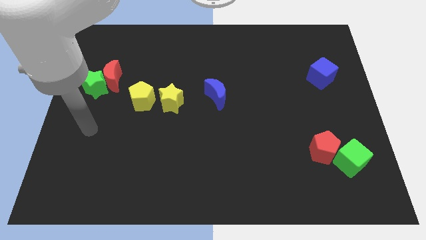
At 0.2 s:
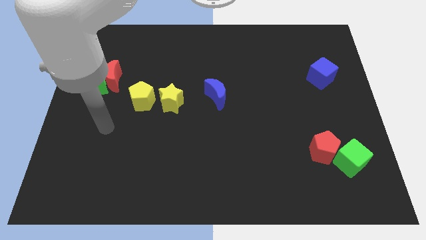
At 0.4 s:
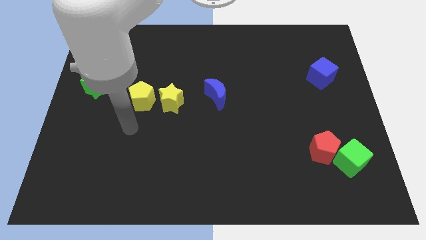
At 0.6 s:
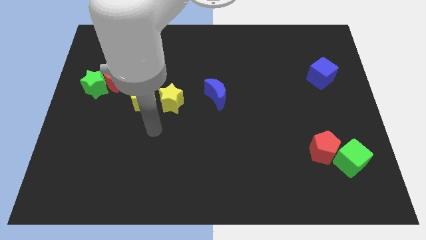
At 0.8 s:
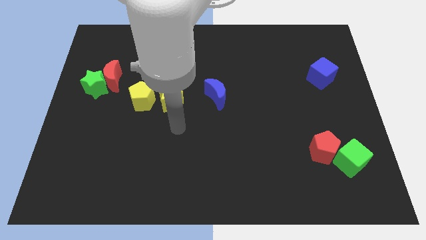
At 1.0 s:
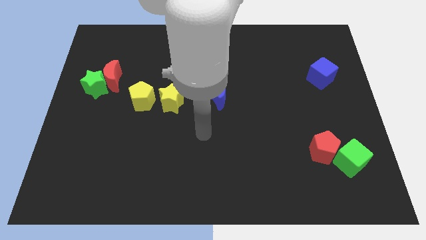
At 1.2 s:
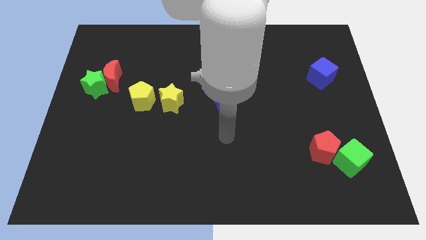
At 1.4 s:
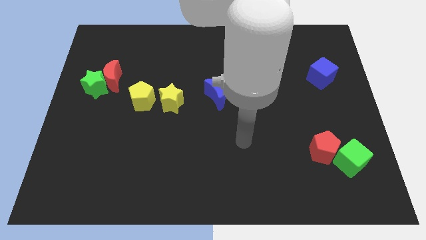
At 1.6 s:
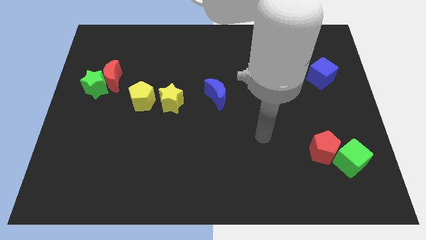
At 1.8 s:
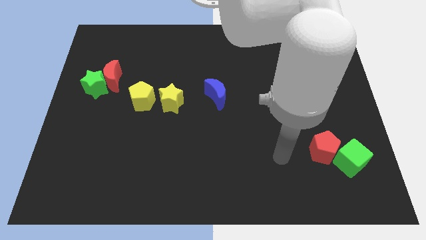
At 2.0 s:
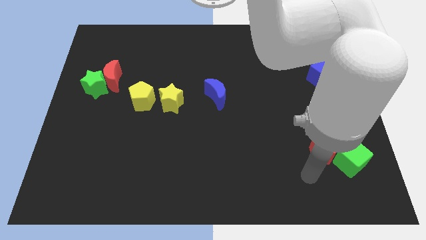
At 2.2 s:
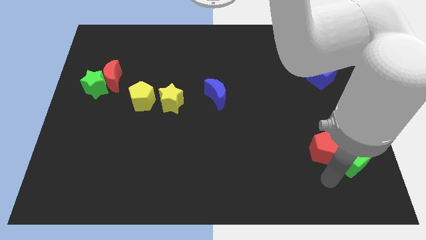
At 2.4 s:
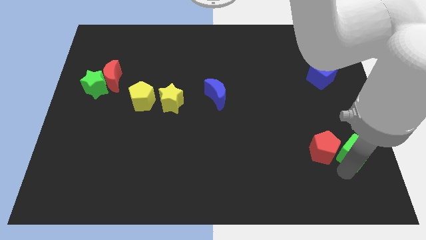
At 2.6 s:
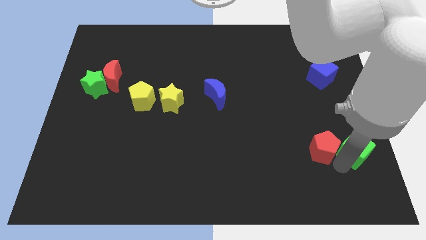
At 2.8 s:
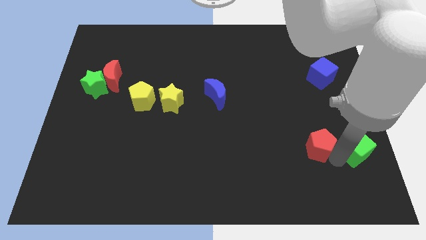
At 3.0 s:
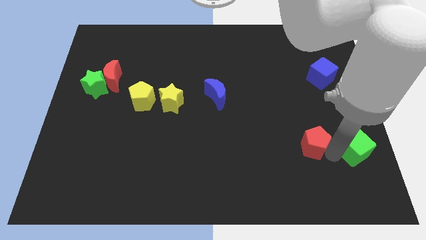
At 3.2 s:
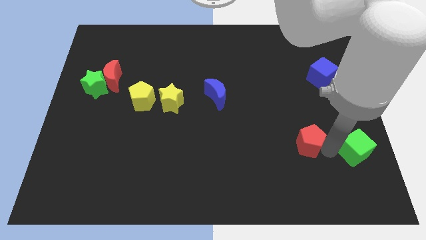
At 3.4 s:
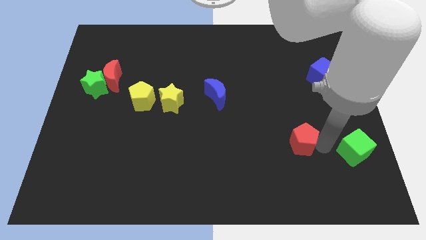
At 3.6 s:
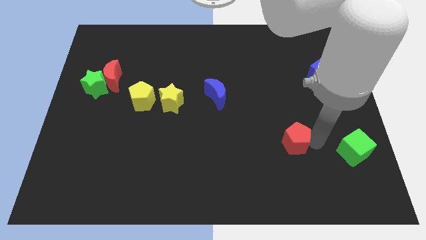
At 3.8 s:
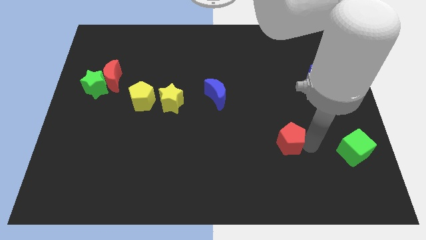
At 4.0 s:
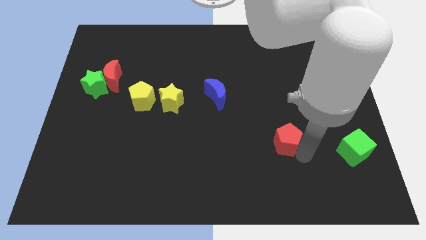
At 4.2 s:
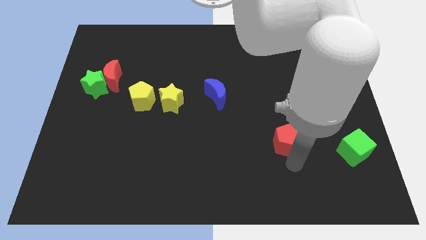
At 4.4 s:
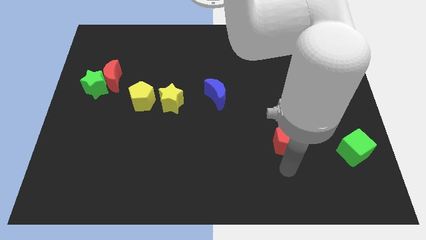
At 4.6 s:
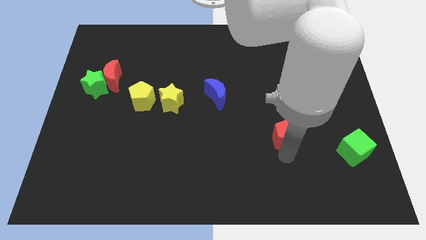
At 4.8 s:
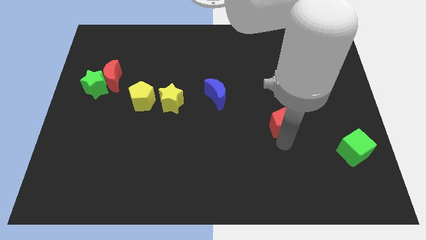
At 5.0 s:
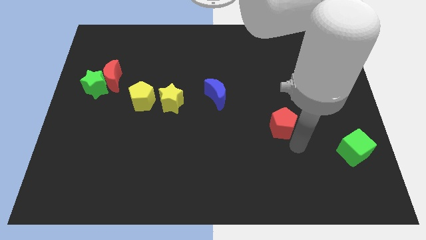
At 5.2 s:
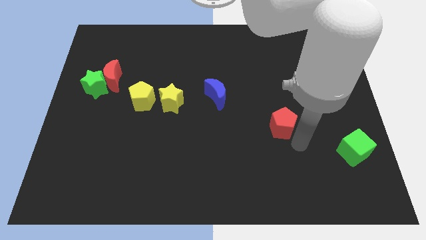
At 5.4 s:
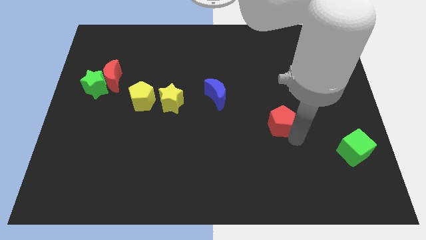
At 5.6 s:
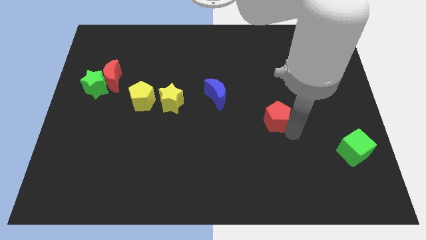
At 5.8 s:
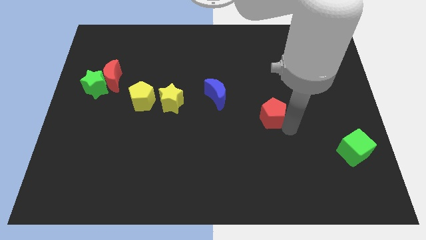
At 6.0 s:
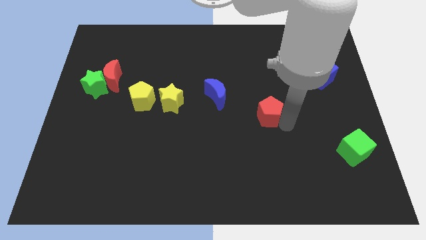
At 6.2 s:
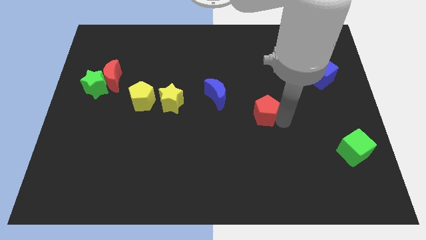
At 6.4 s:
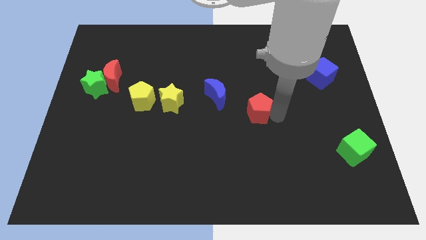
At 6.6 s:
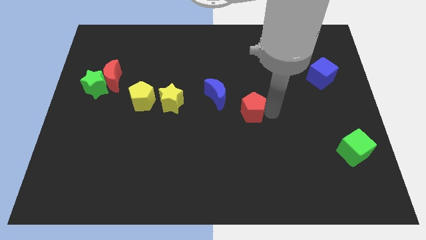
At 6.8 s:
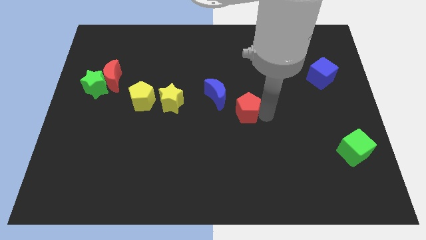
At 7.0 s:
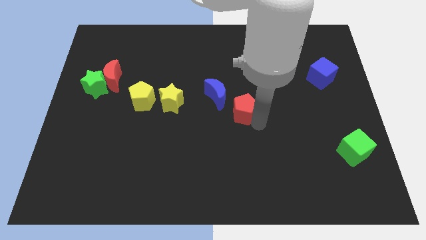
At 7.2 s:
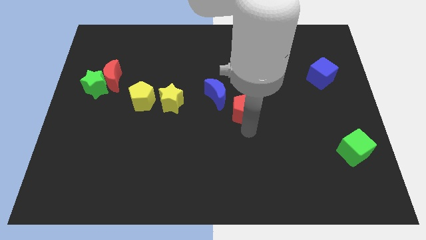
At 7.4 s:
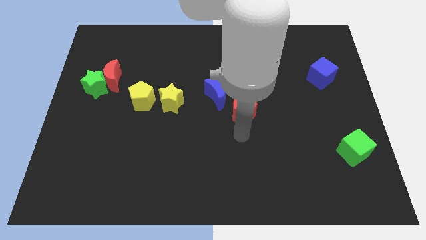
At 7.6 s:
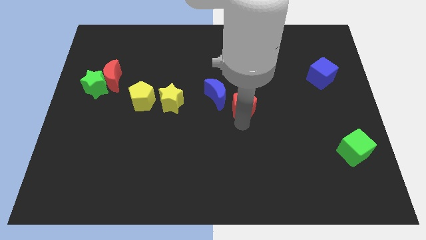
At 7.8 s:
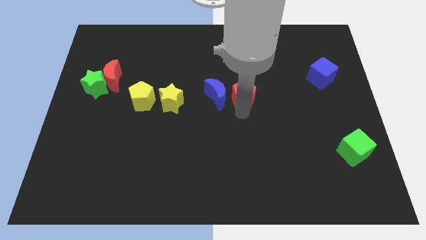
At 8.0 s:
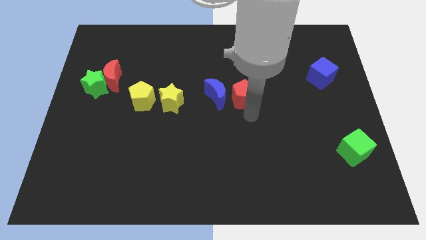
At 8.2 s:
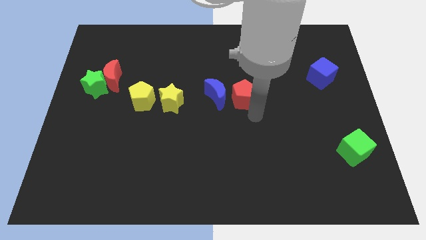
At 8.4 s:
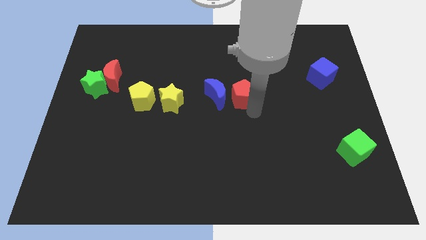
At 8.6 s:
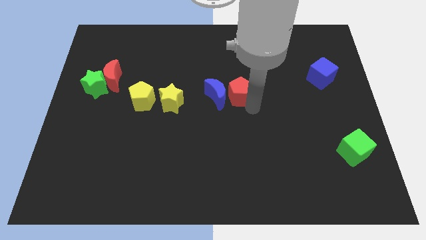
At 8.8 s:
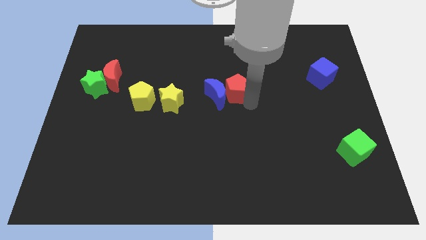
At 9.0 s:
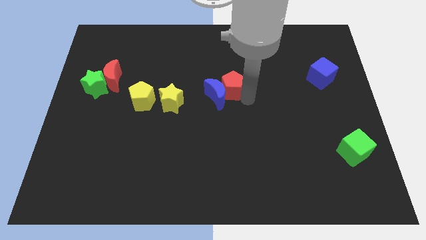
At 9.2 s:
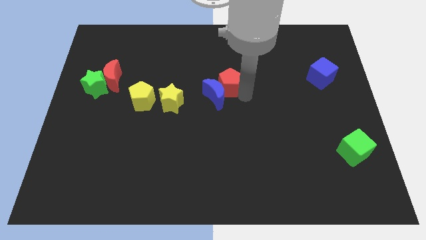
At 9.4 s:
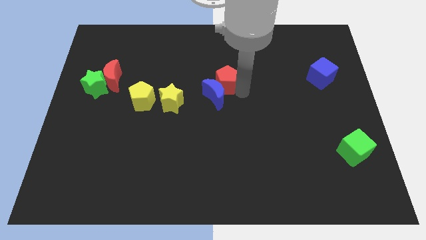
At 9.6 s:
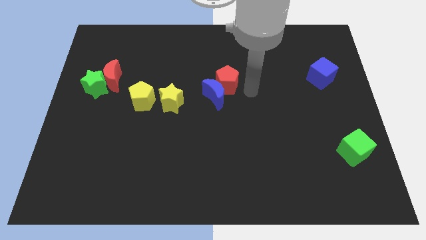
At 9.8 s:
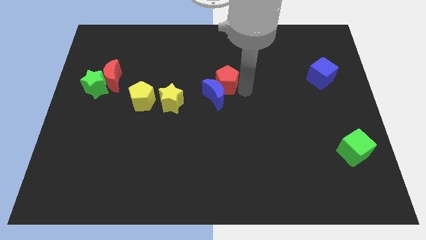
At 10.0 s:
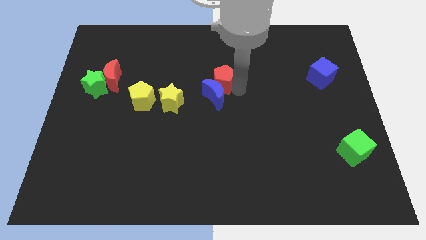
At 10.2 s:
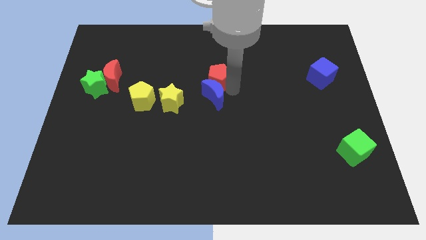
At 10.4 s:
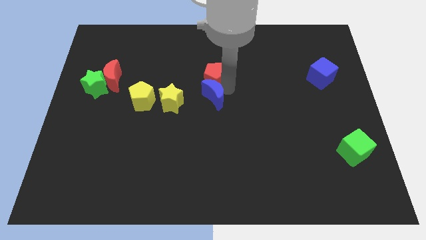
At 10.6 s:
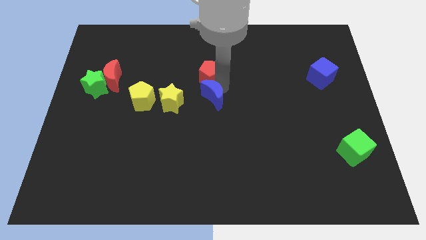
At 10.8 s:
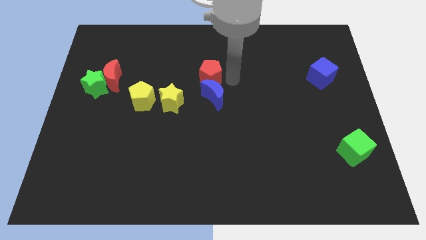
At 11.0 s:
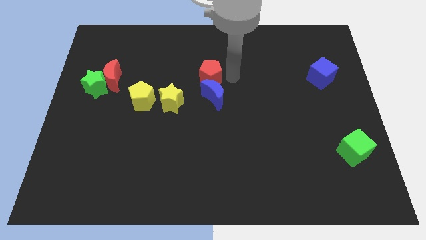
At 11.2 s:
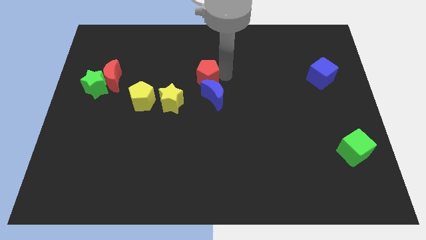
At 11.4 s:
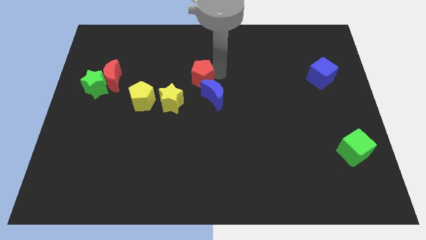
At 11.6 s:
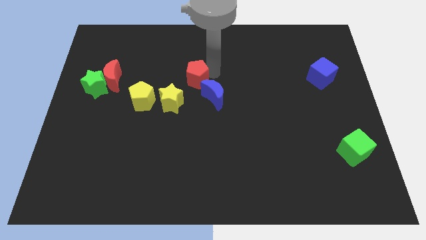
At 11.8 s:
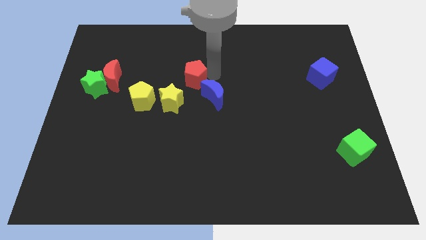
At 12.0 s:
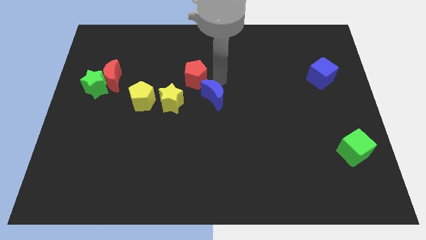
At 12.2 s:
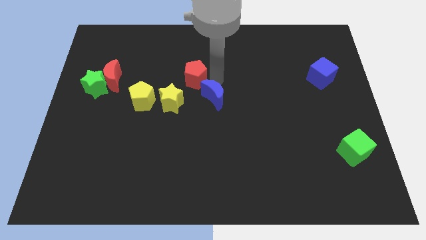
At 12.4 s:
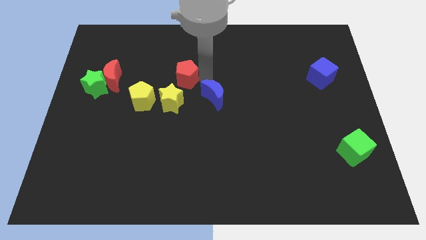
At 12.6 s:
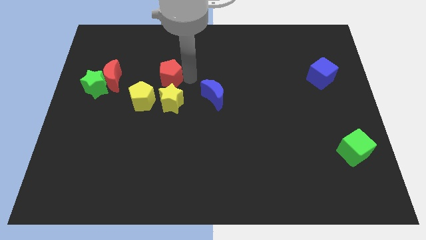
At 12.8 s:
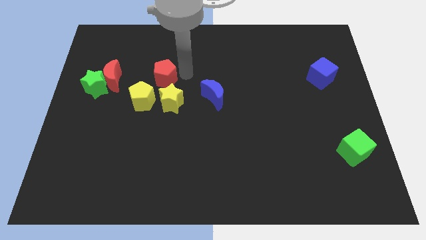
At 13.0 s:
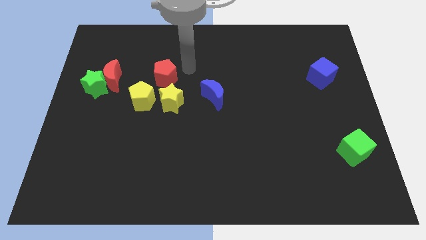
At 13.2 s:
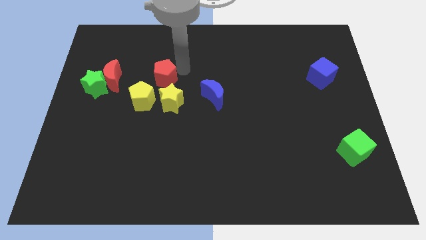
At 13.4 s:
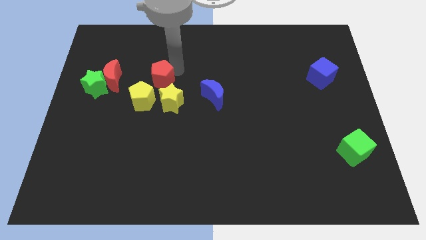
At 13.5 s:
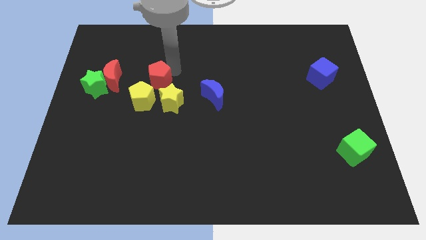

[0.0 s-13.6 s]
slide the red pentagon just right of the green star
